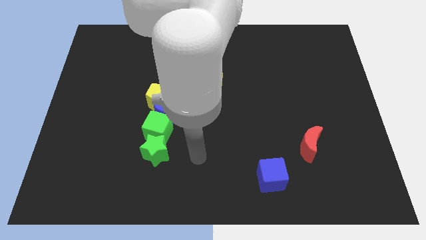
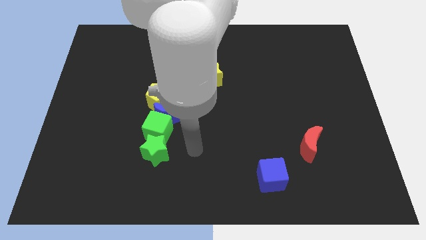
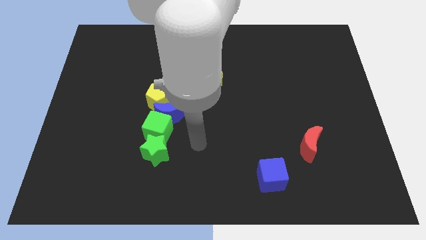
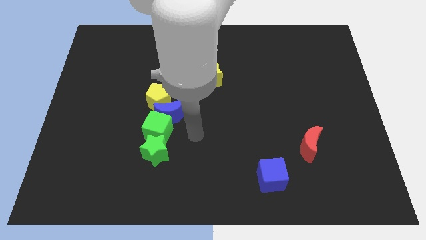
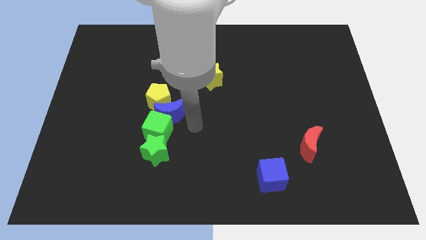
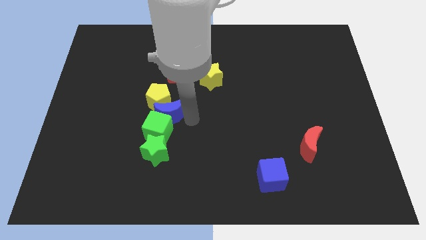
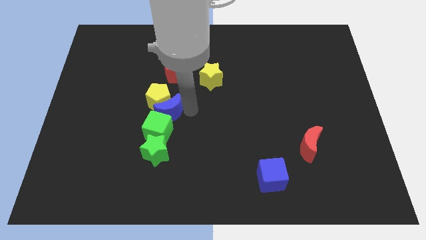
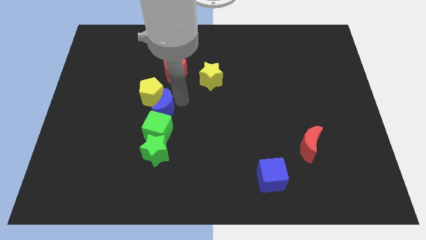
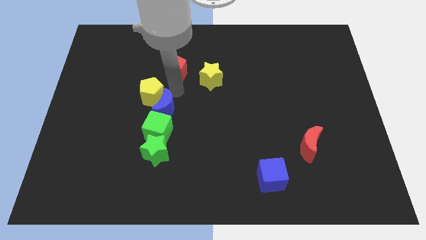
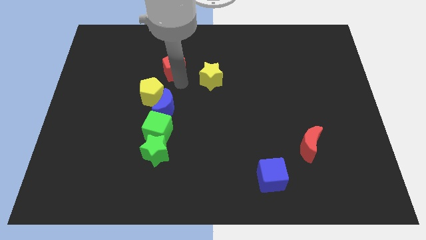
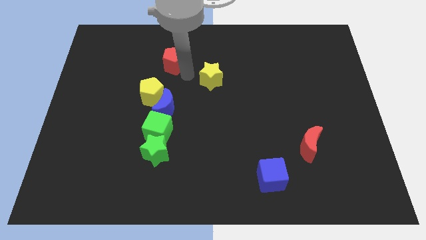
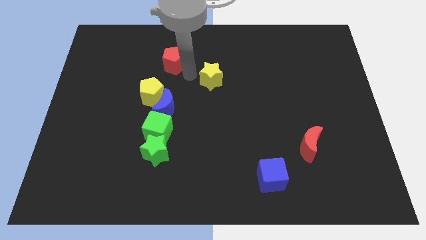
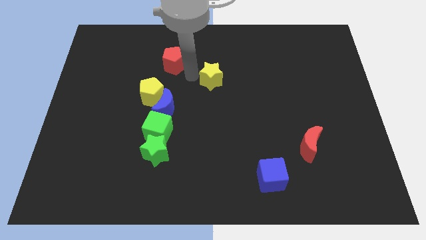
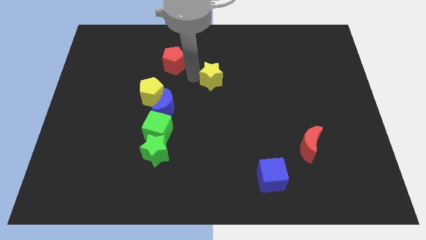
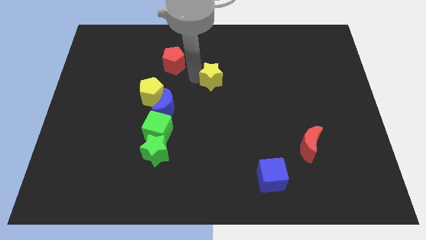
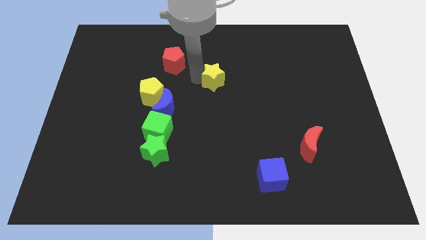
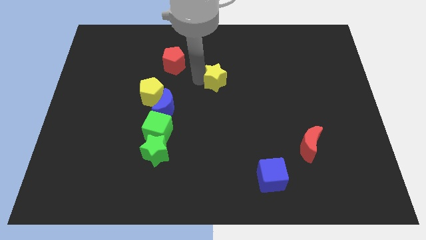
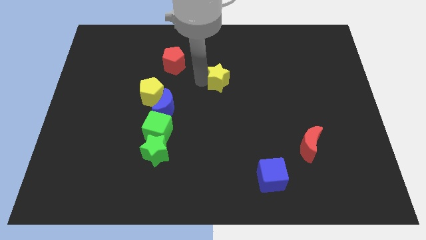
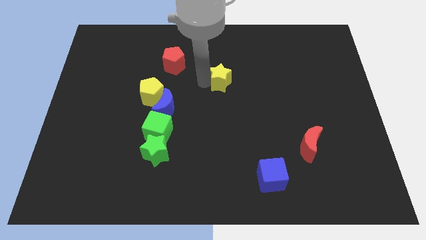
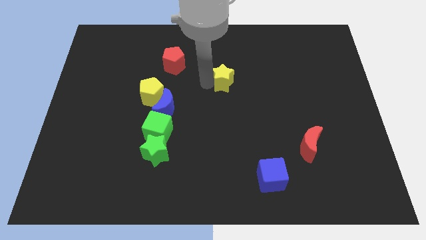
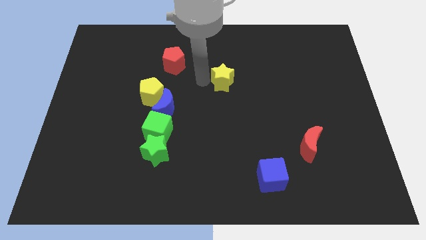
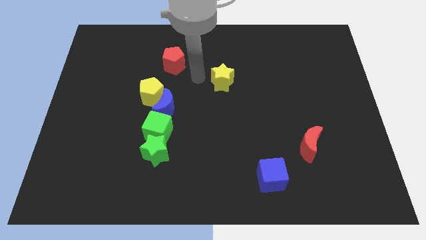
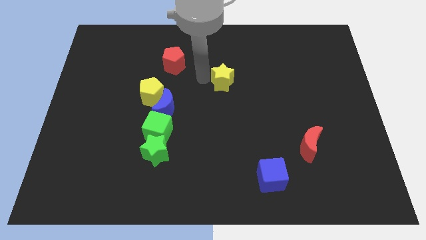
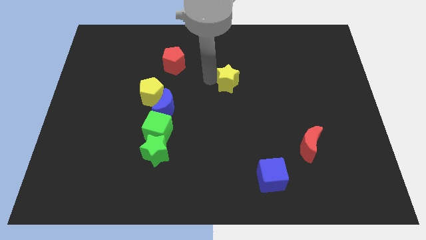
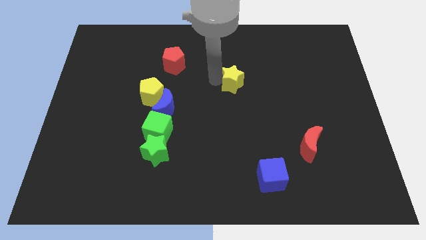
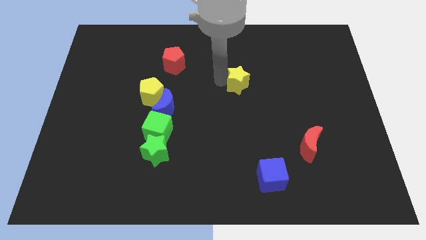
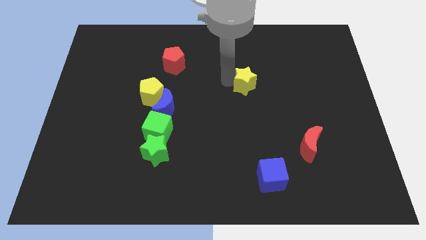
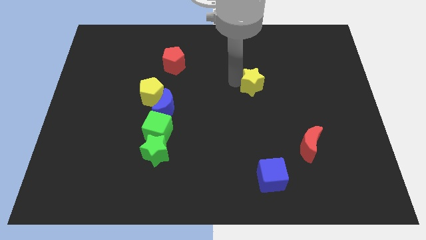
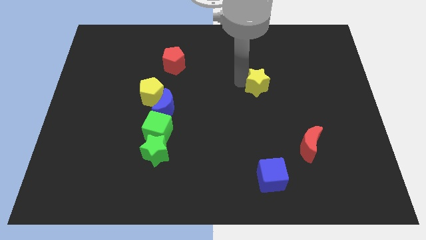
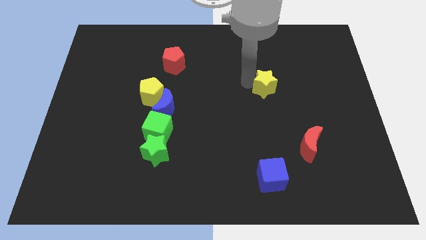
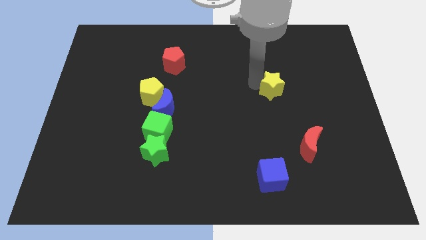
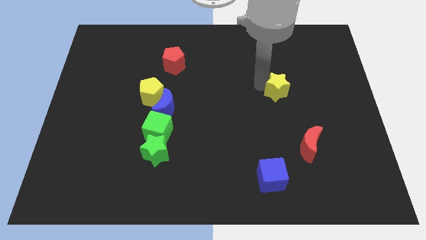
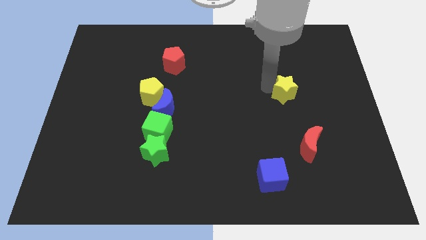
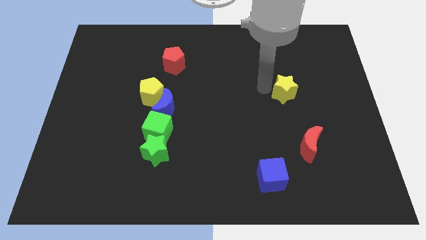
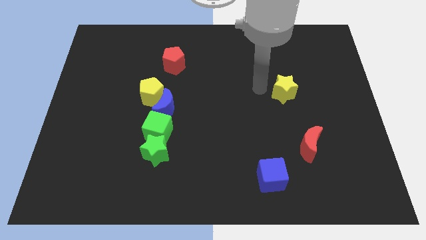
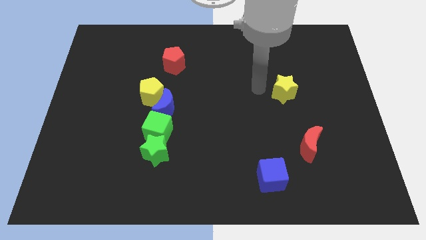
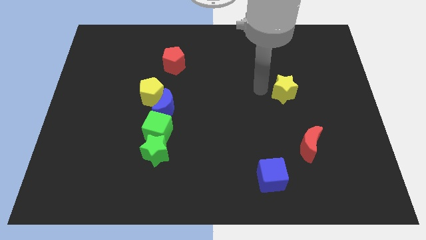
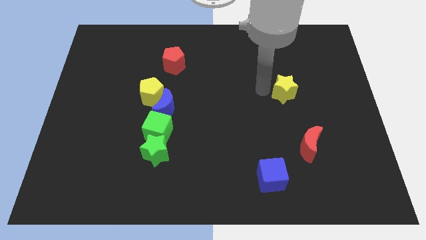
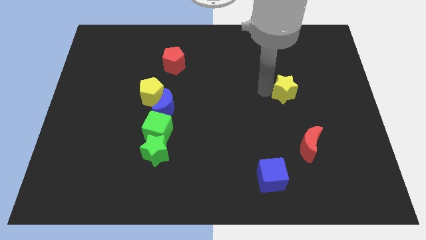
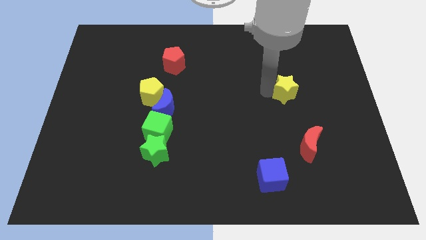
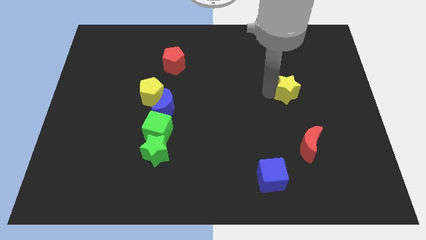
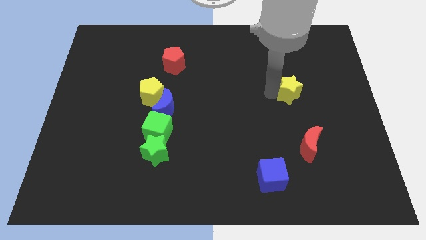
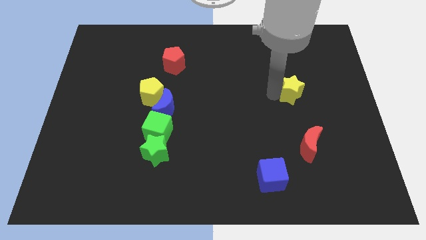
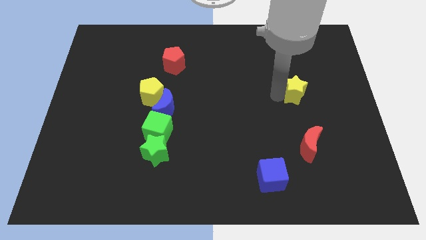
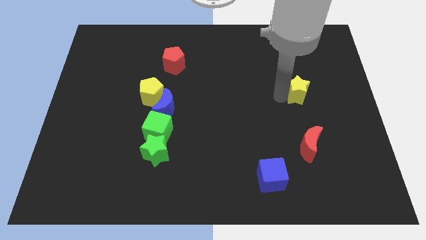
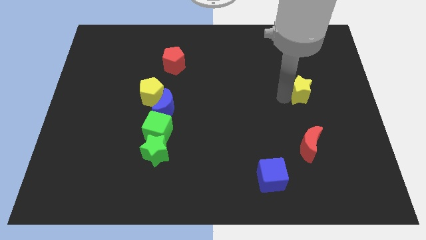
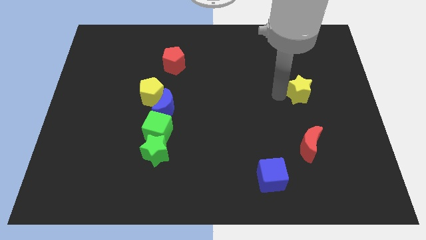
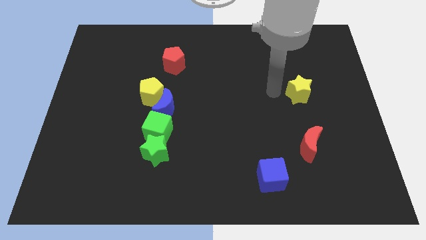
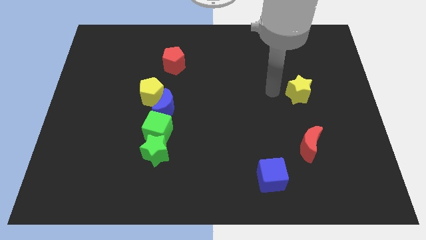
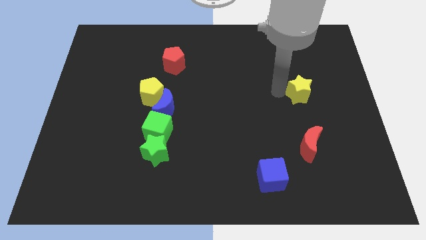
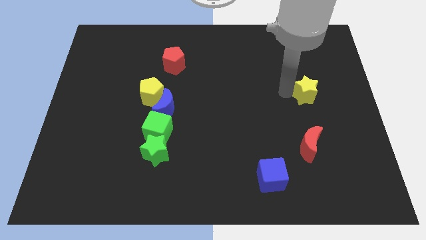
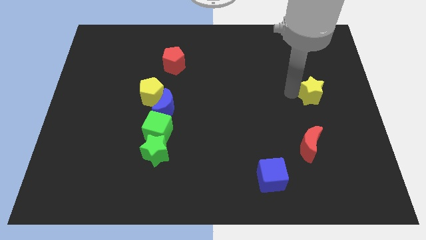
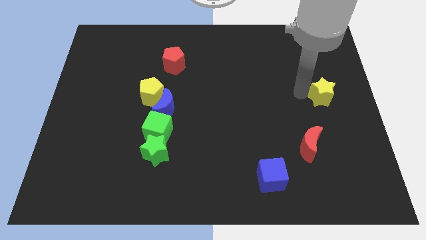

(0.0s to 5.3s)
slide the yellow star to the right side

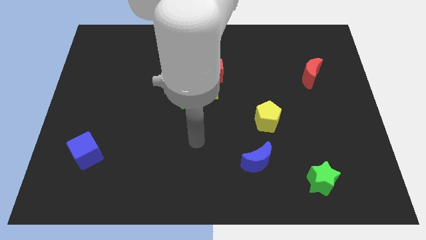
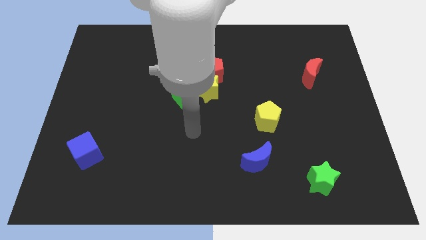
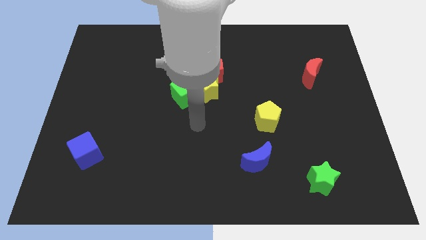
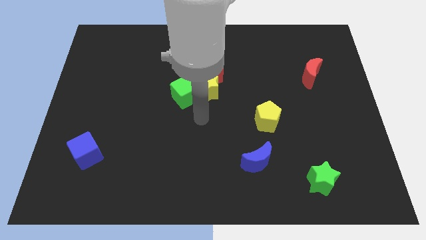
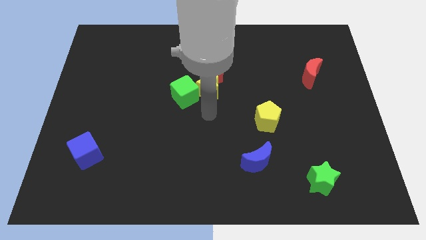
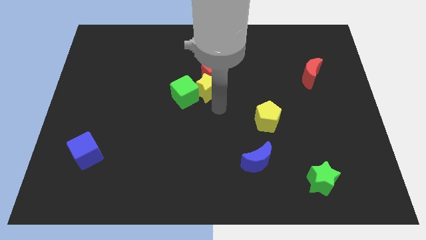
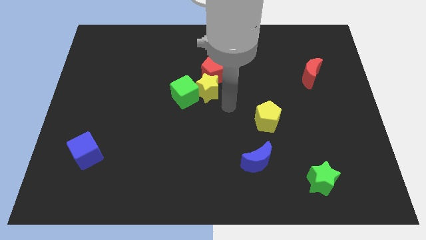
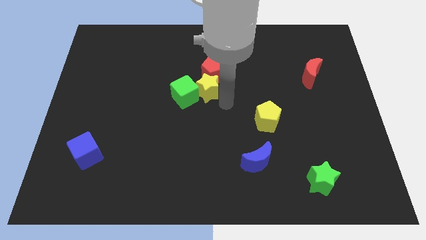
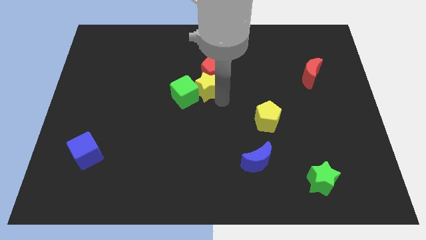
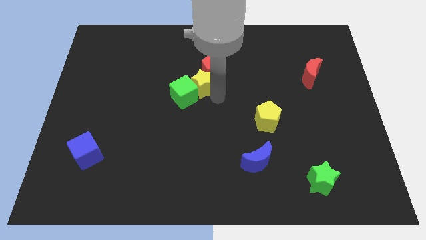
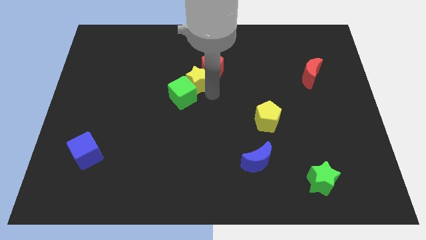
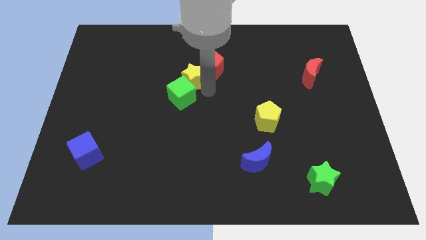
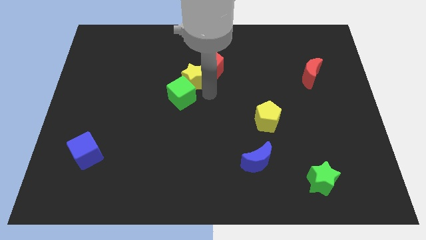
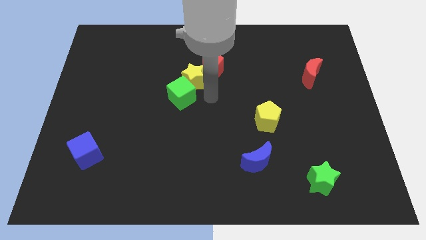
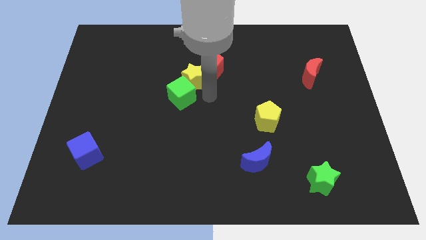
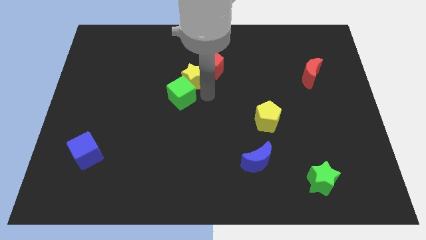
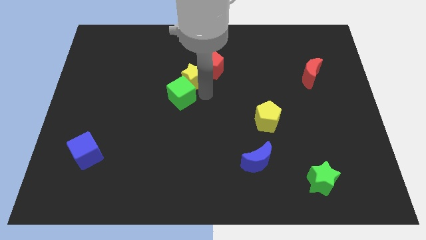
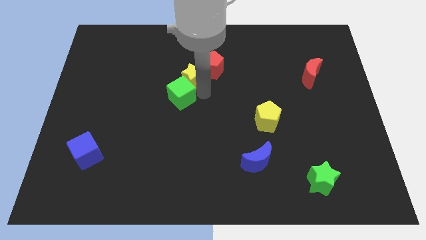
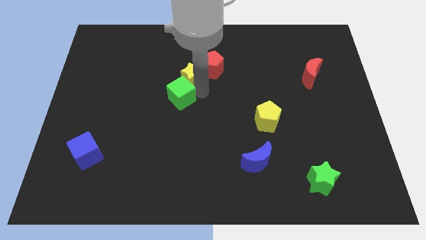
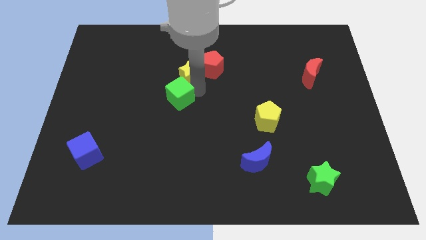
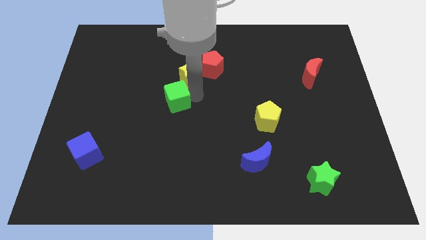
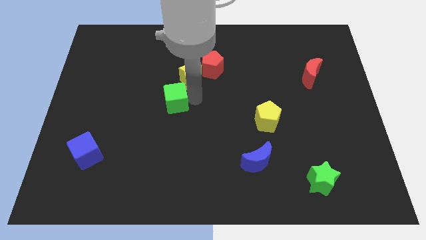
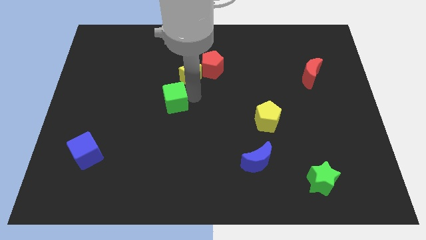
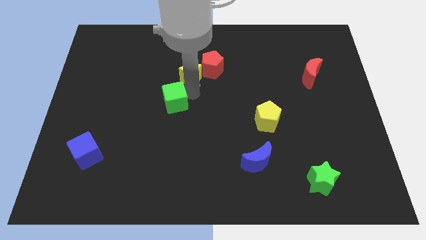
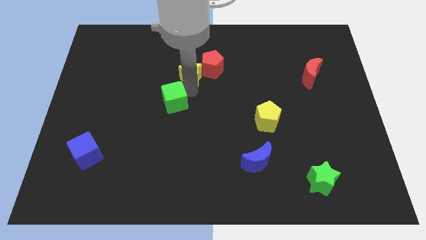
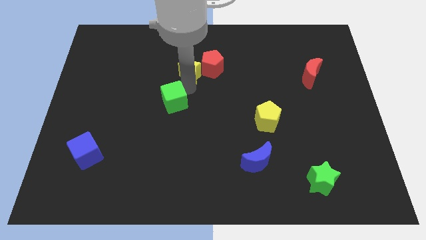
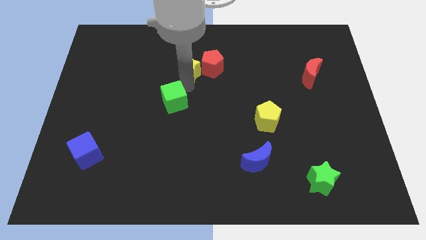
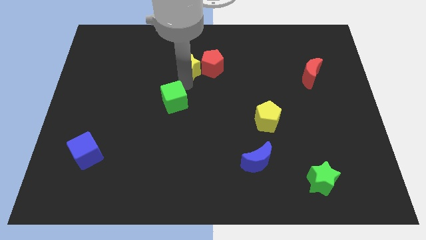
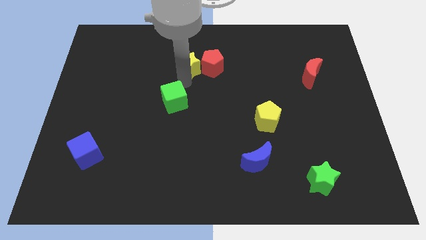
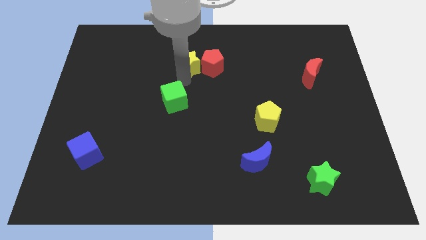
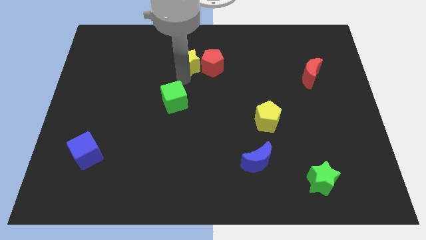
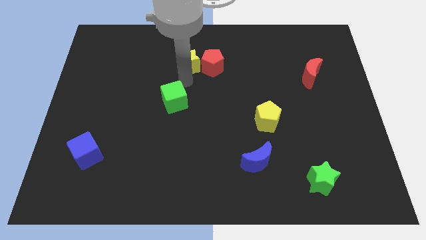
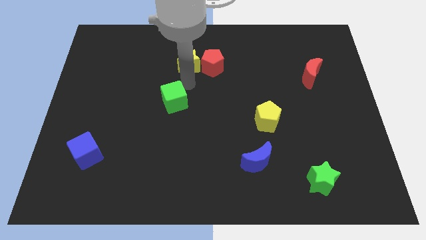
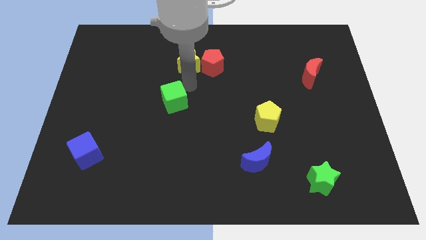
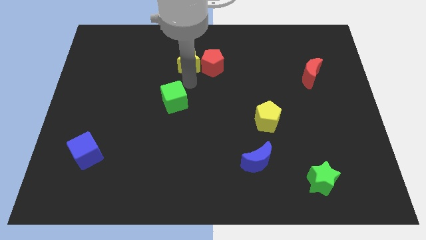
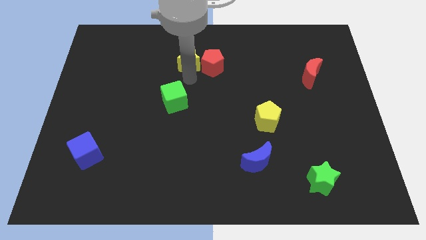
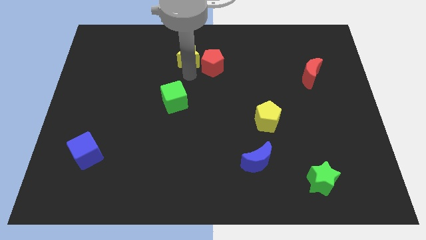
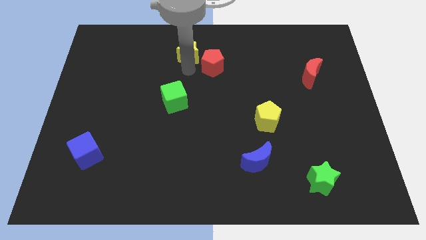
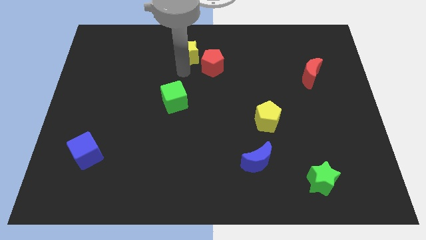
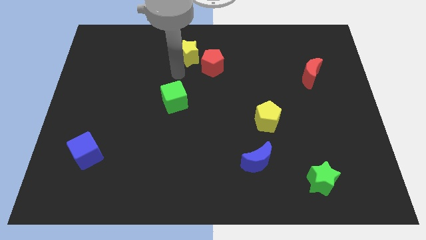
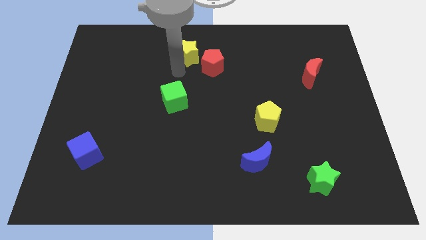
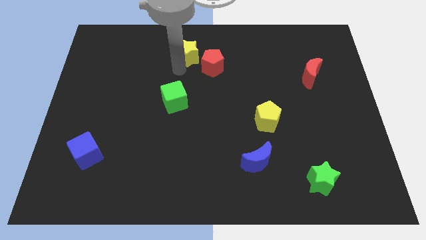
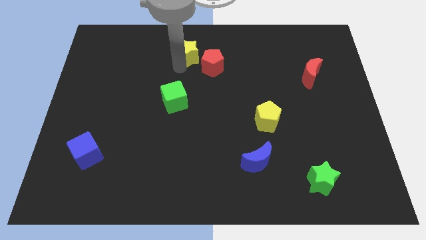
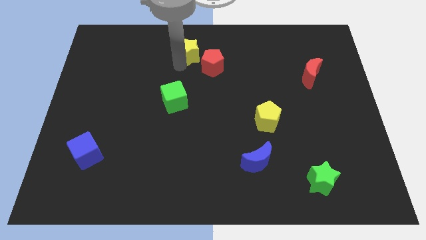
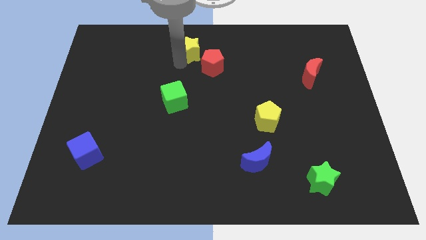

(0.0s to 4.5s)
put the yellow star to the top
